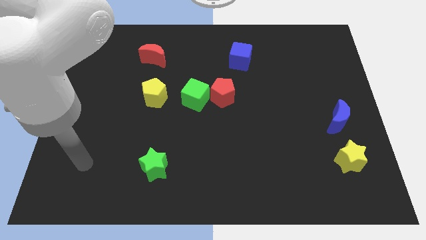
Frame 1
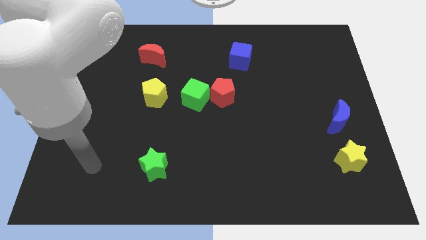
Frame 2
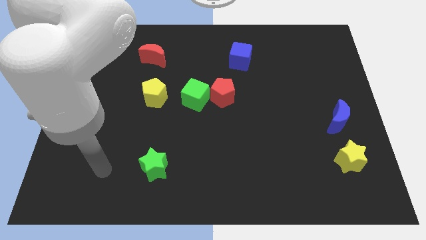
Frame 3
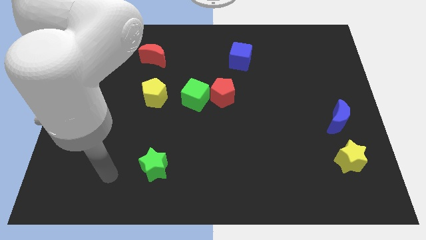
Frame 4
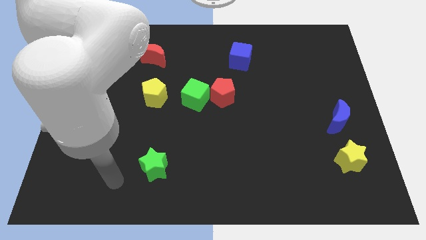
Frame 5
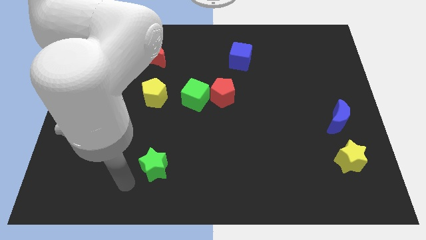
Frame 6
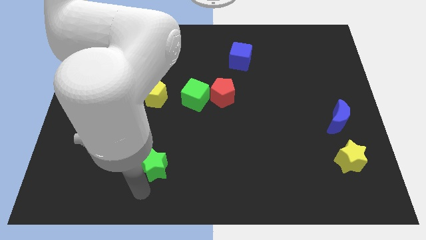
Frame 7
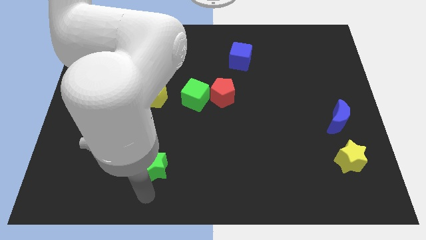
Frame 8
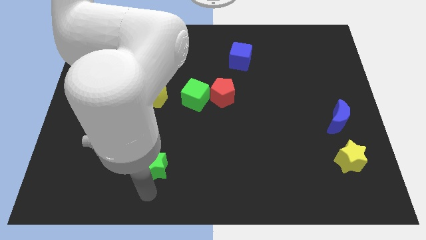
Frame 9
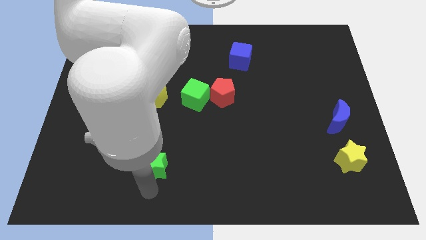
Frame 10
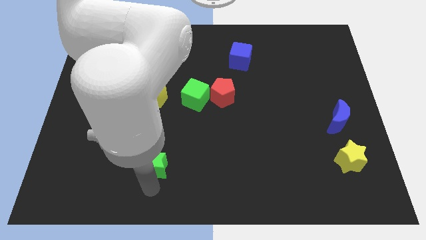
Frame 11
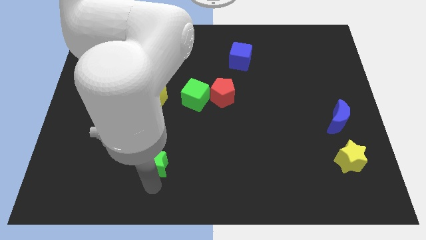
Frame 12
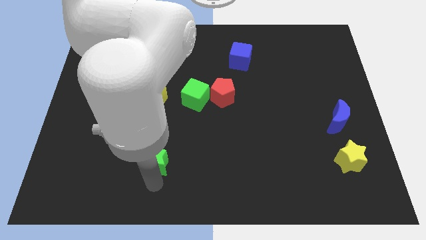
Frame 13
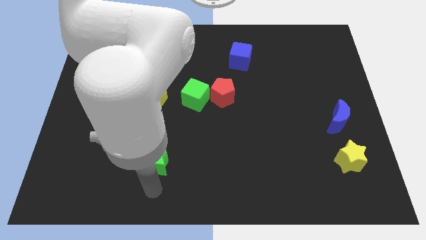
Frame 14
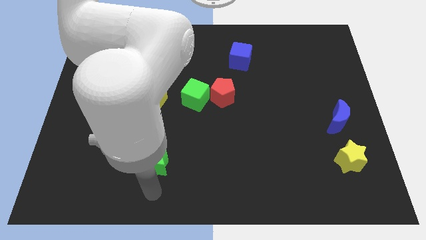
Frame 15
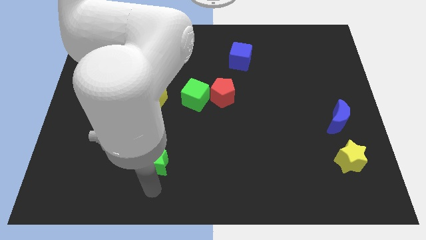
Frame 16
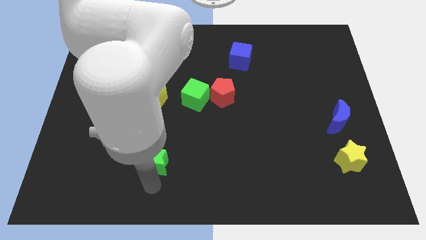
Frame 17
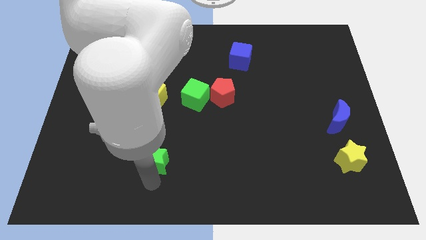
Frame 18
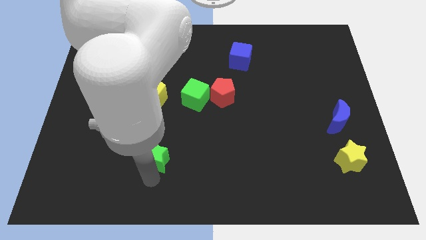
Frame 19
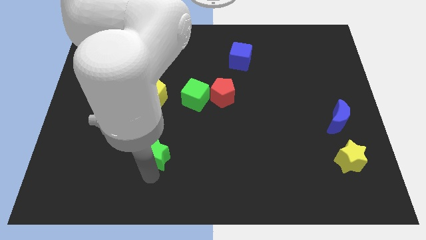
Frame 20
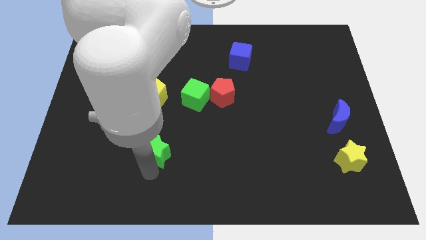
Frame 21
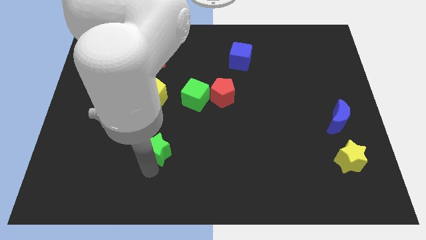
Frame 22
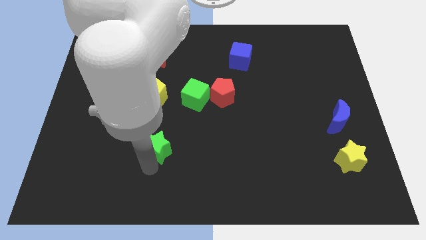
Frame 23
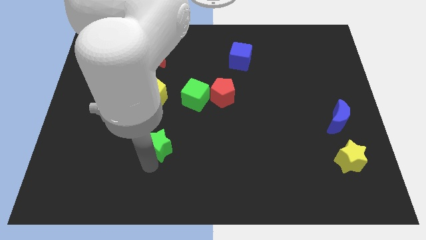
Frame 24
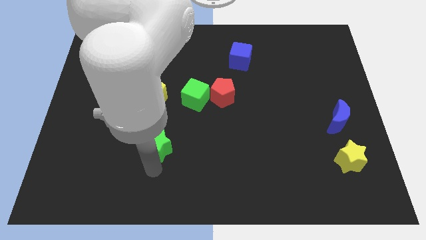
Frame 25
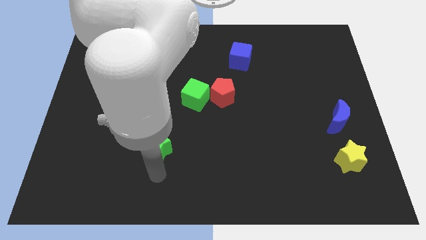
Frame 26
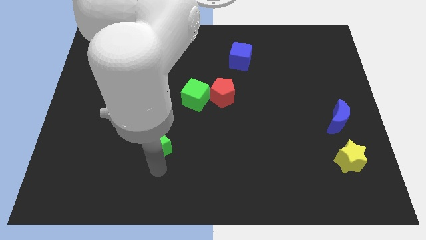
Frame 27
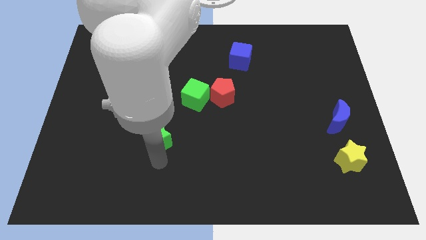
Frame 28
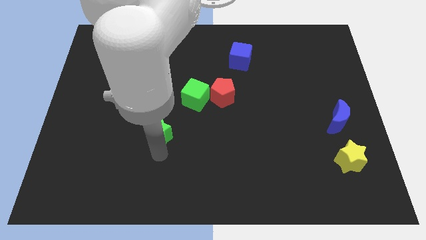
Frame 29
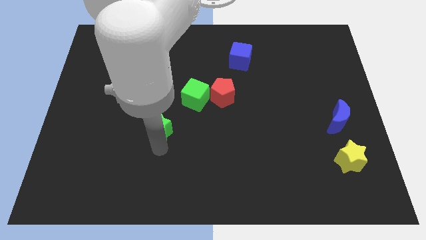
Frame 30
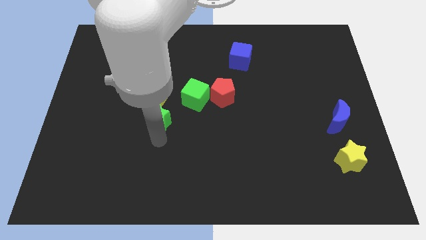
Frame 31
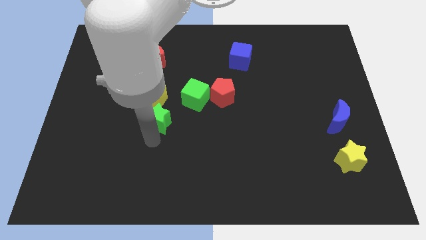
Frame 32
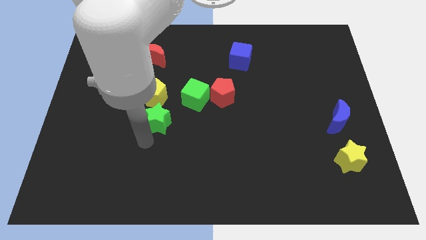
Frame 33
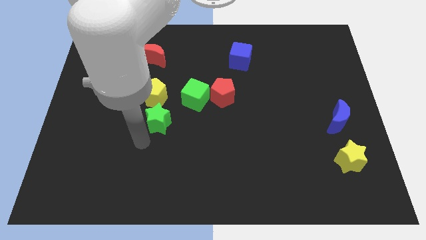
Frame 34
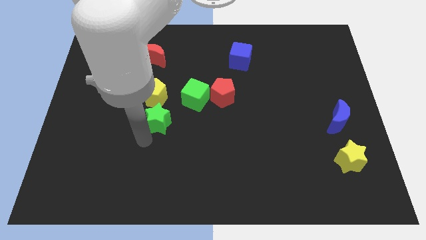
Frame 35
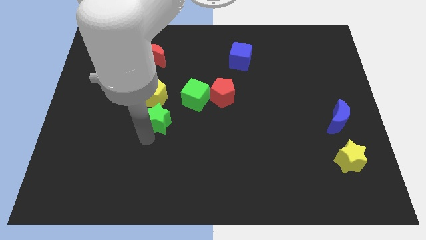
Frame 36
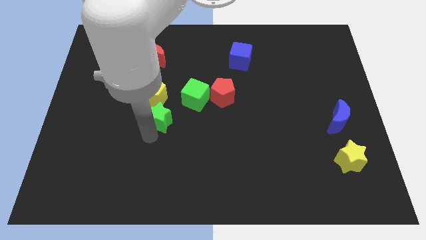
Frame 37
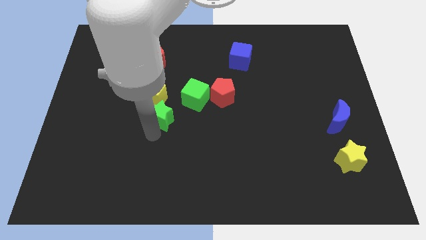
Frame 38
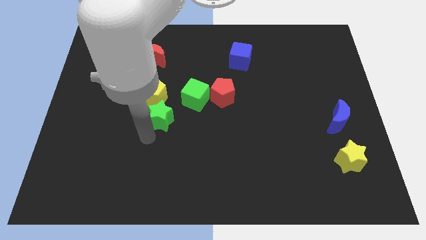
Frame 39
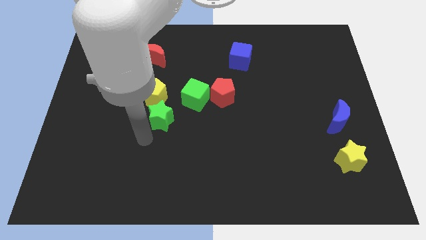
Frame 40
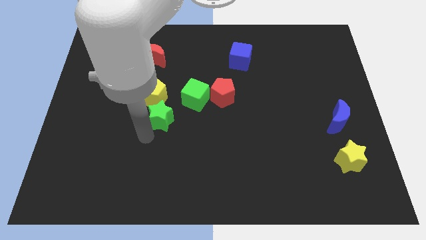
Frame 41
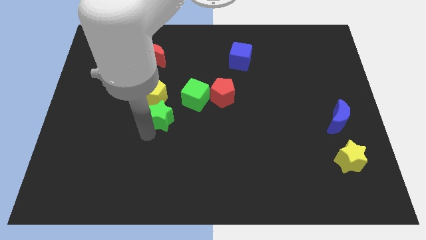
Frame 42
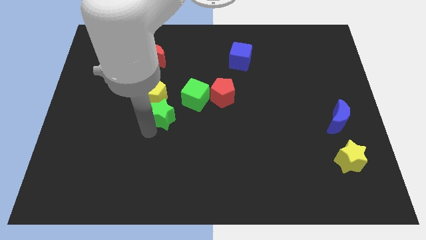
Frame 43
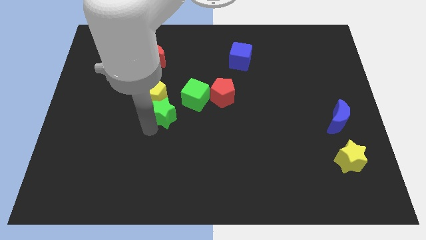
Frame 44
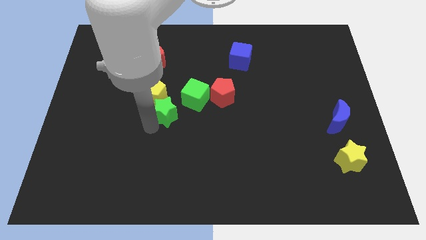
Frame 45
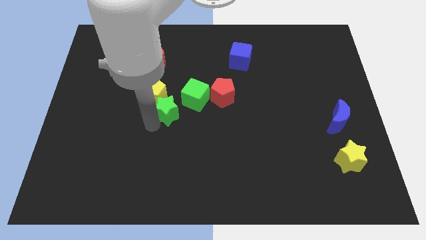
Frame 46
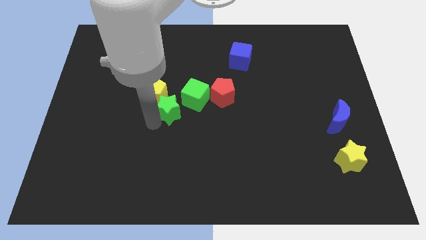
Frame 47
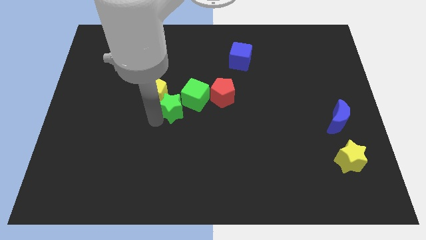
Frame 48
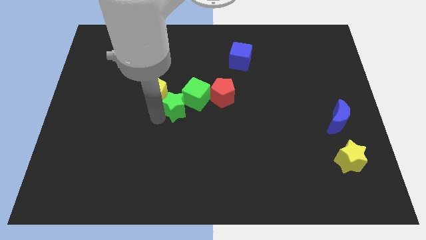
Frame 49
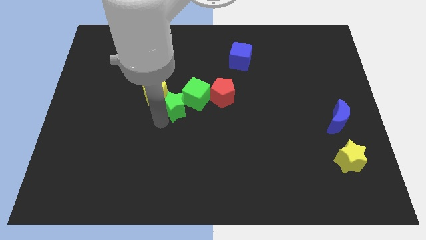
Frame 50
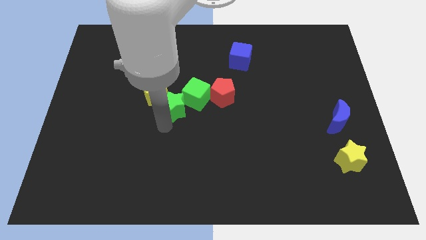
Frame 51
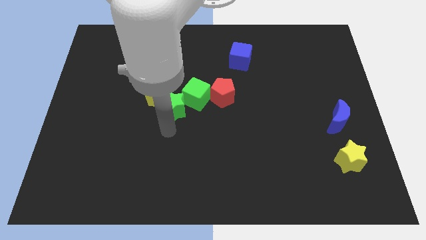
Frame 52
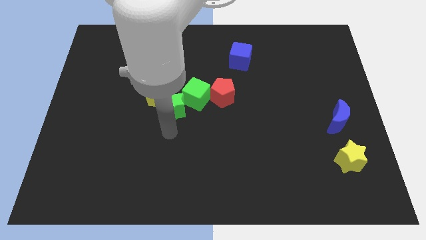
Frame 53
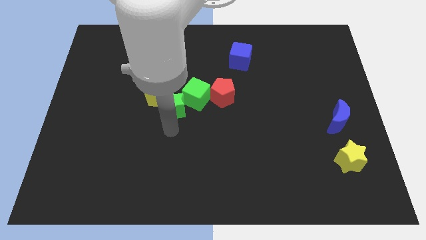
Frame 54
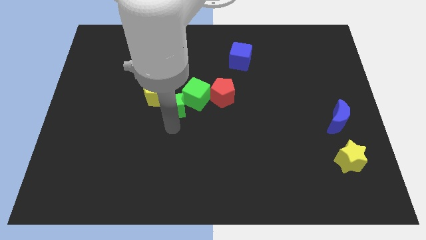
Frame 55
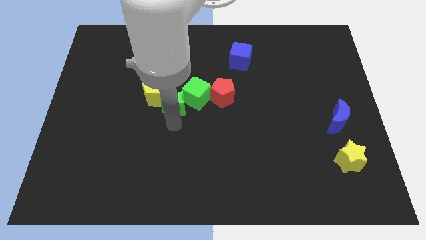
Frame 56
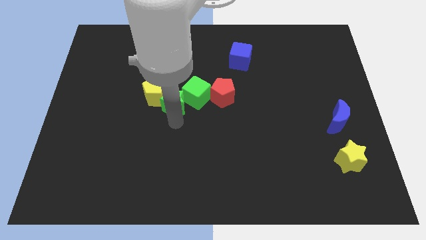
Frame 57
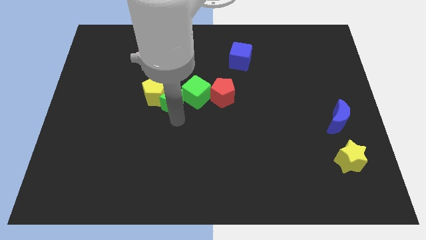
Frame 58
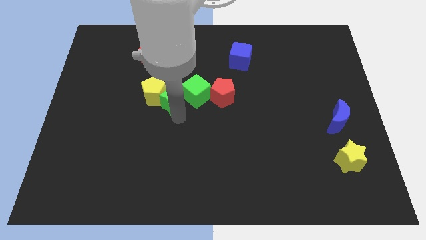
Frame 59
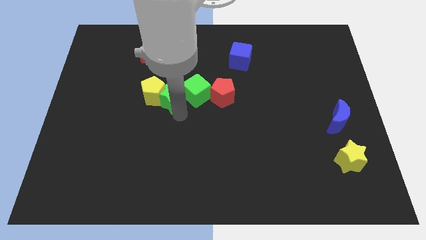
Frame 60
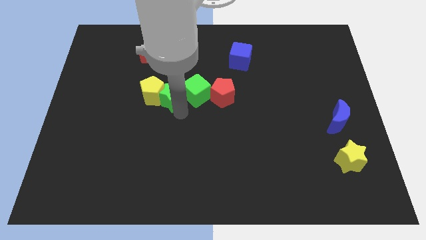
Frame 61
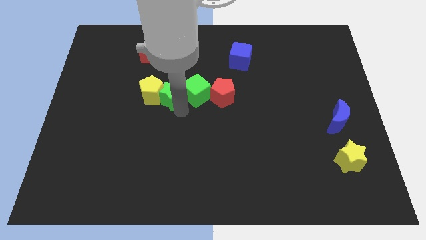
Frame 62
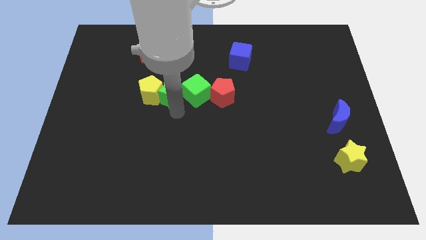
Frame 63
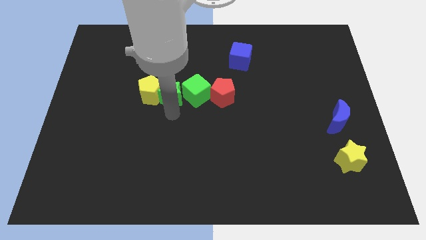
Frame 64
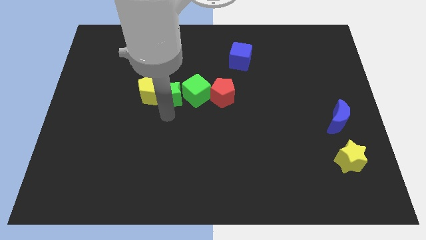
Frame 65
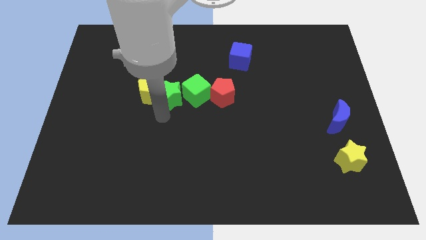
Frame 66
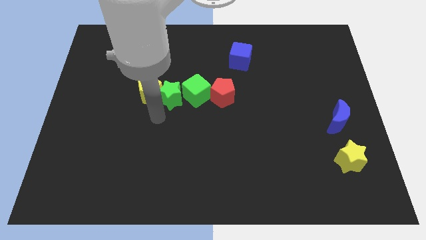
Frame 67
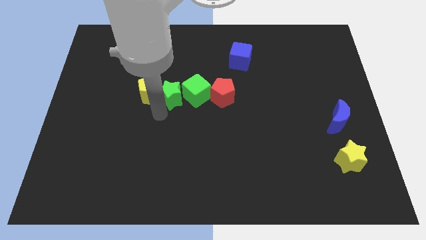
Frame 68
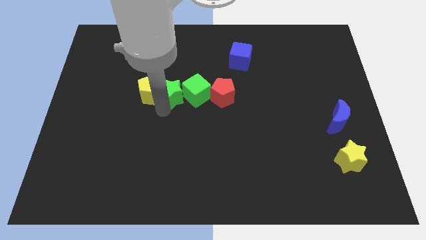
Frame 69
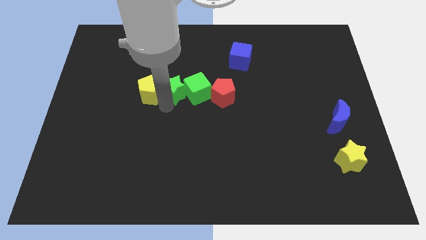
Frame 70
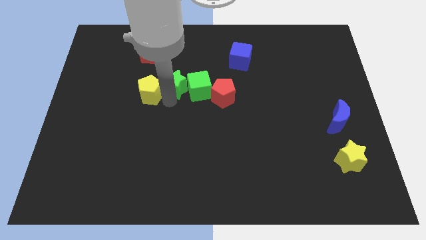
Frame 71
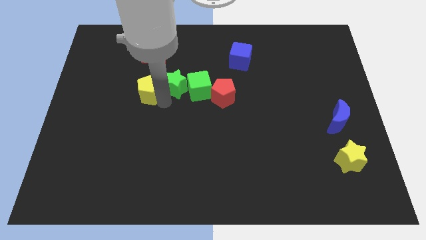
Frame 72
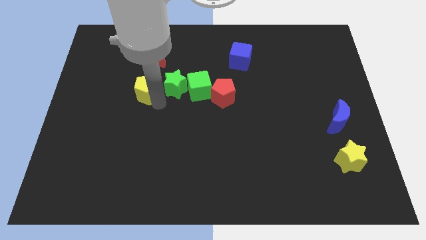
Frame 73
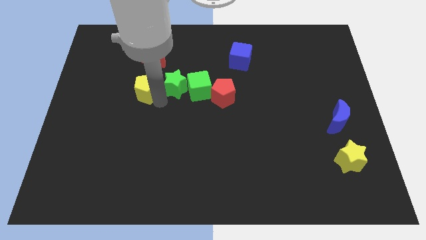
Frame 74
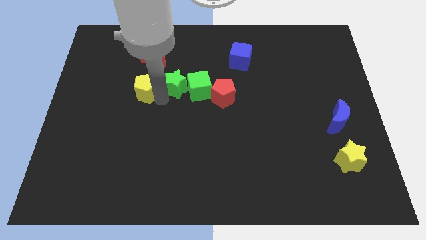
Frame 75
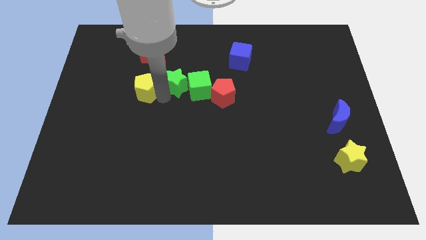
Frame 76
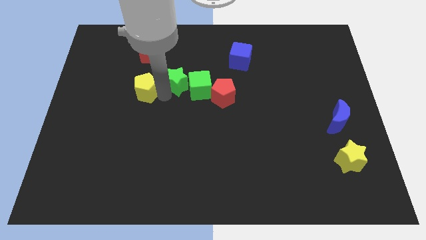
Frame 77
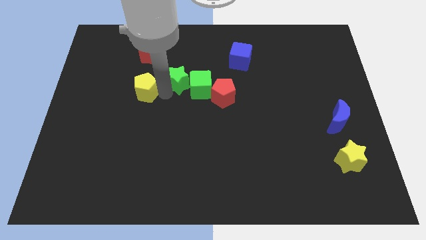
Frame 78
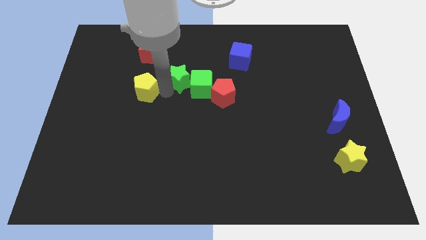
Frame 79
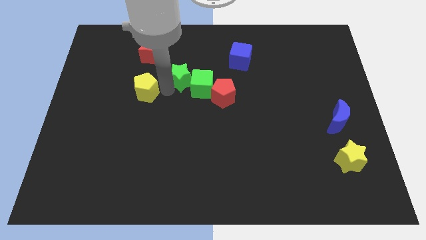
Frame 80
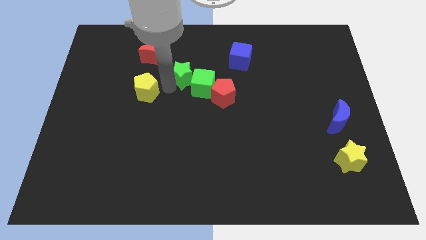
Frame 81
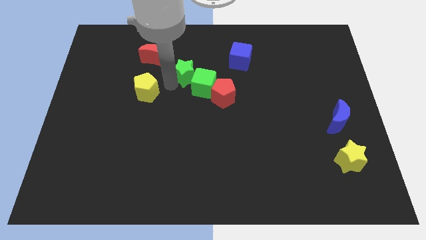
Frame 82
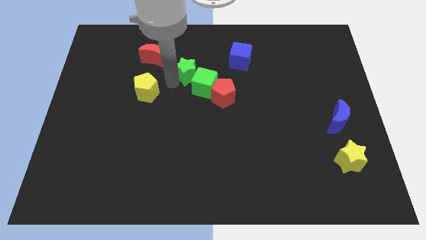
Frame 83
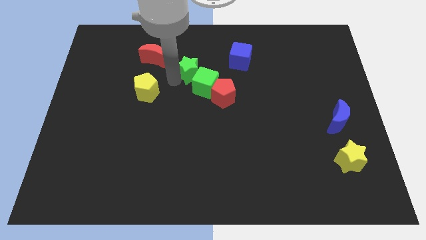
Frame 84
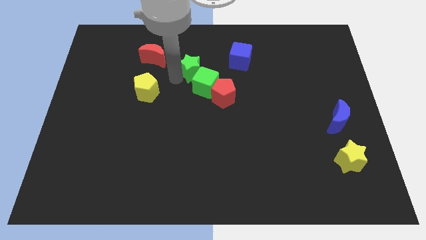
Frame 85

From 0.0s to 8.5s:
push the green star to the left of the blue cube
